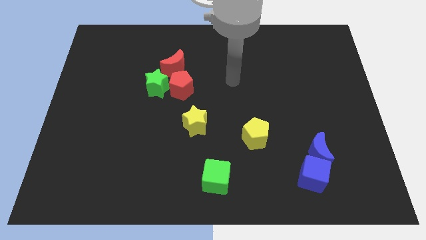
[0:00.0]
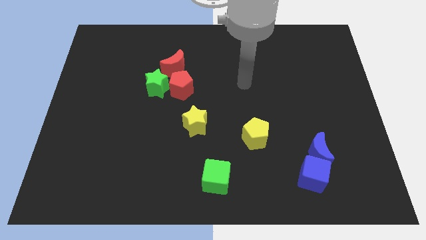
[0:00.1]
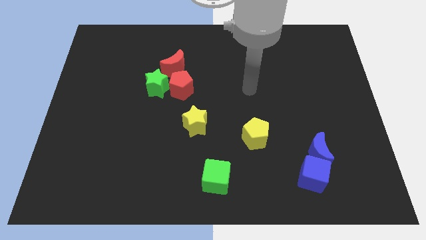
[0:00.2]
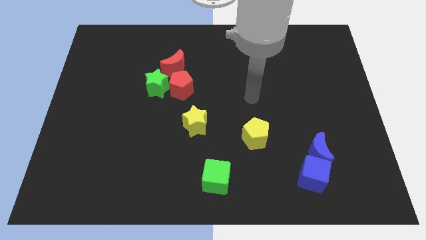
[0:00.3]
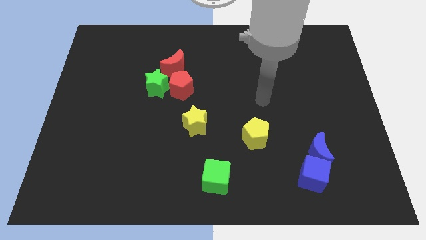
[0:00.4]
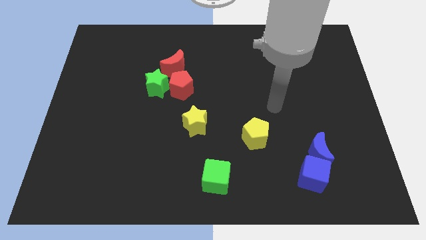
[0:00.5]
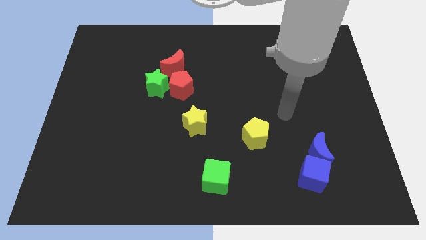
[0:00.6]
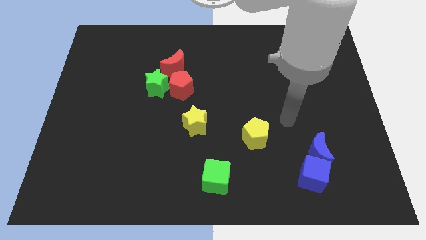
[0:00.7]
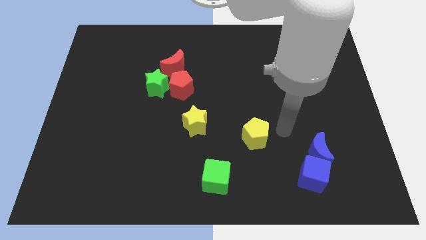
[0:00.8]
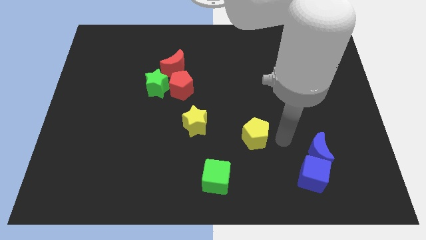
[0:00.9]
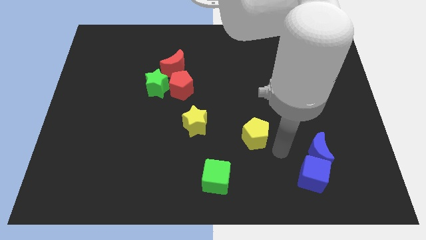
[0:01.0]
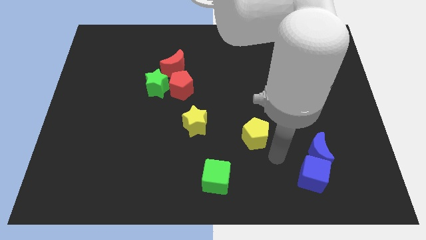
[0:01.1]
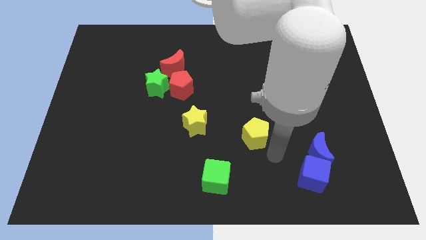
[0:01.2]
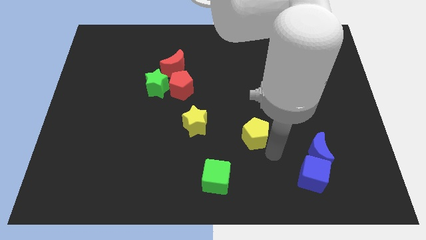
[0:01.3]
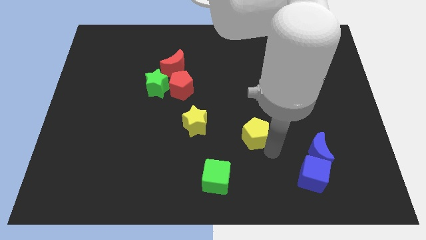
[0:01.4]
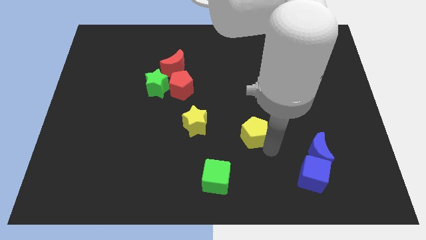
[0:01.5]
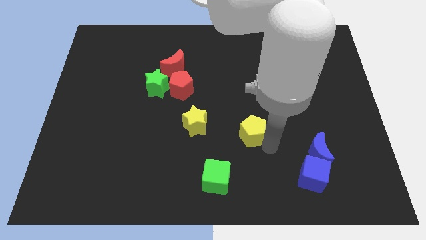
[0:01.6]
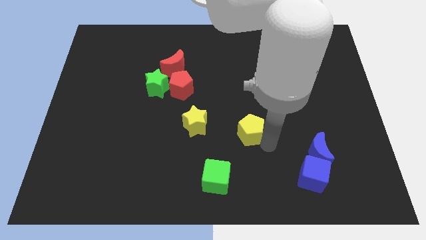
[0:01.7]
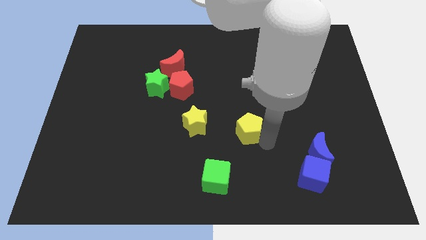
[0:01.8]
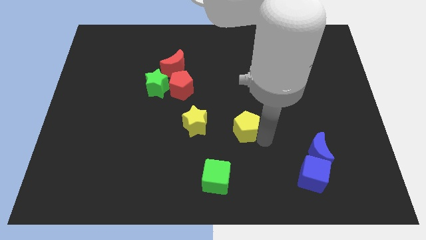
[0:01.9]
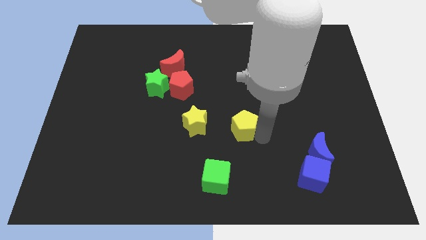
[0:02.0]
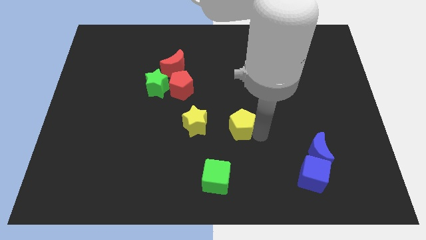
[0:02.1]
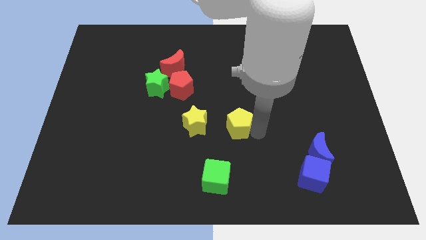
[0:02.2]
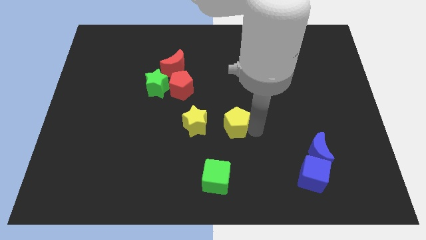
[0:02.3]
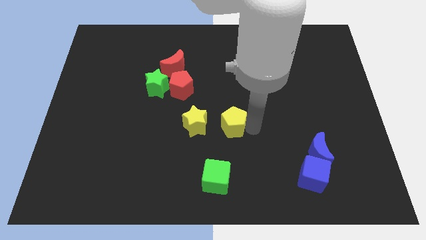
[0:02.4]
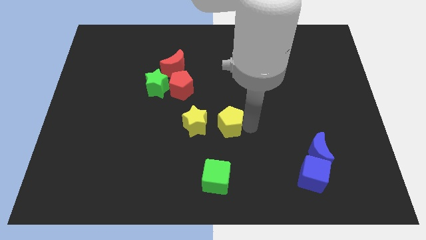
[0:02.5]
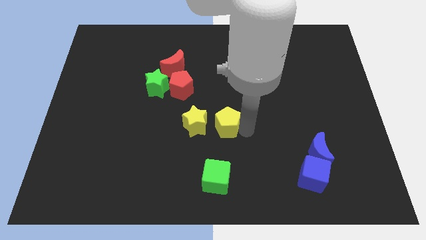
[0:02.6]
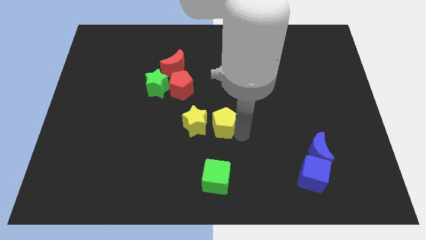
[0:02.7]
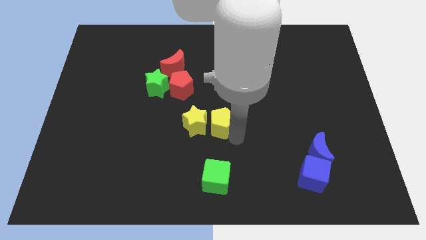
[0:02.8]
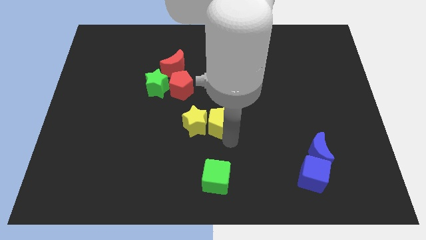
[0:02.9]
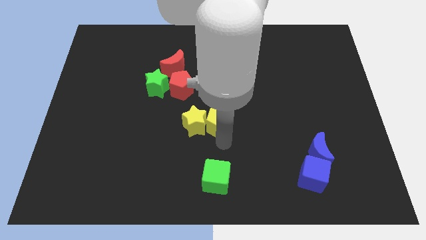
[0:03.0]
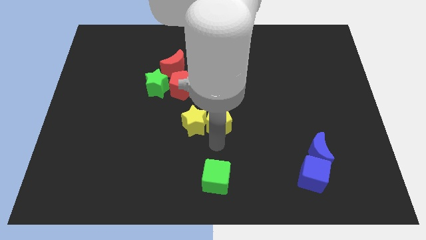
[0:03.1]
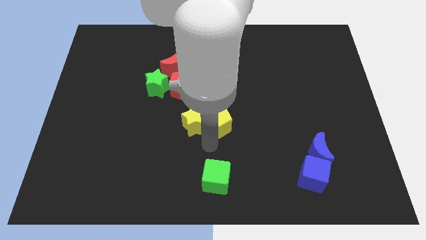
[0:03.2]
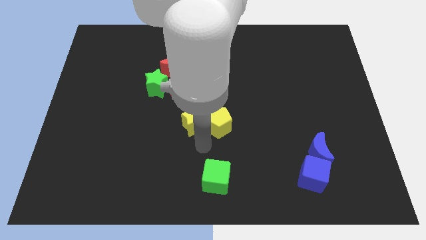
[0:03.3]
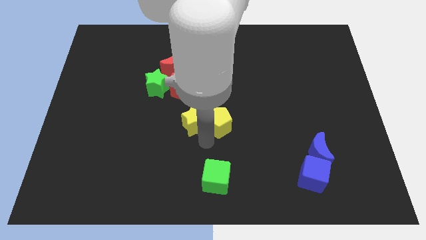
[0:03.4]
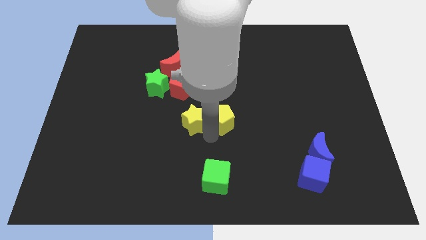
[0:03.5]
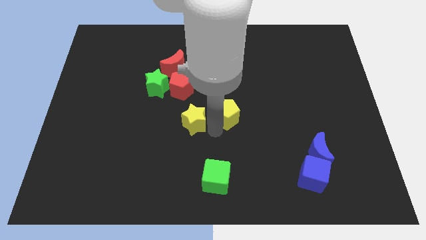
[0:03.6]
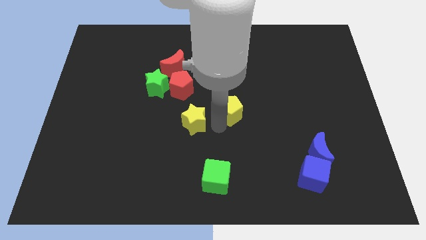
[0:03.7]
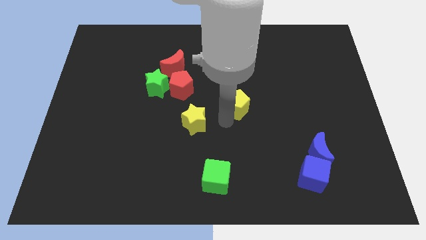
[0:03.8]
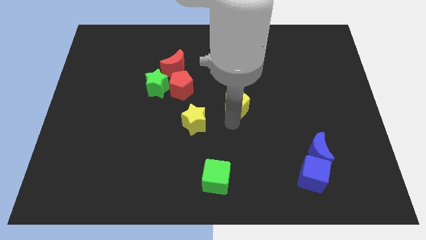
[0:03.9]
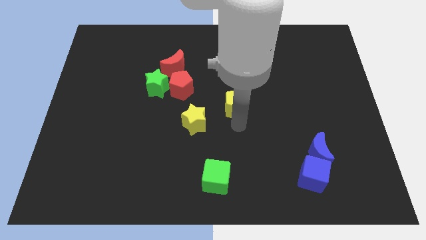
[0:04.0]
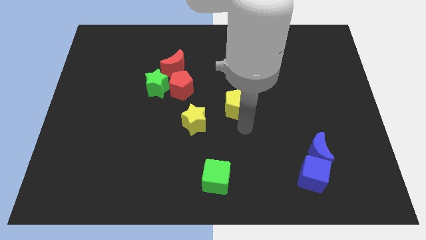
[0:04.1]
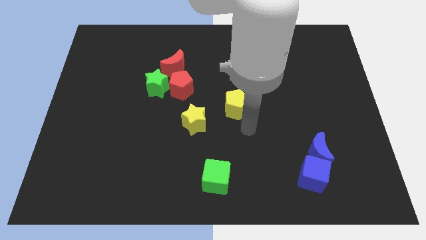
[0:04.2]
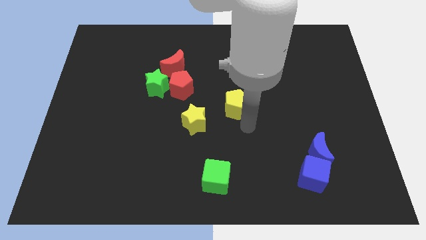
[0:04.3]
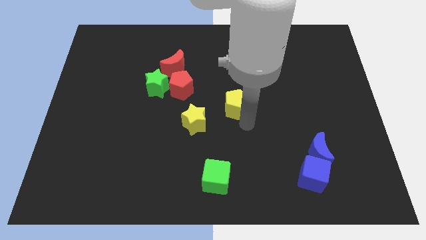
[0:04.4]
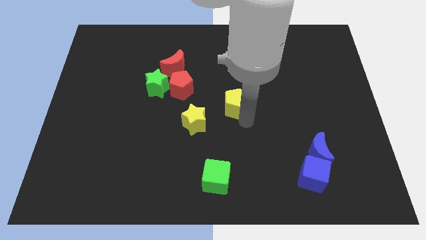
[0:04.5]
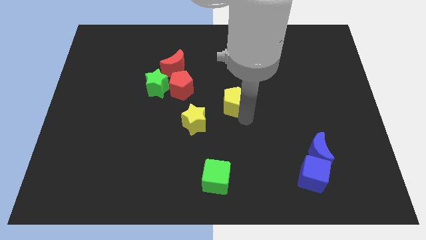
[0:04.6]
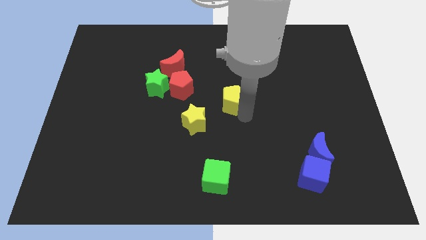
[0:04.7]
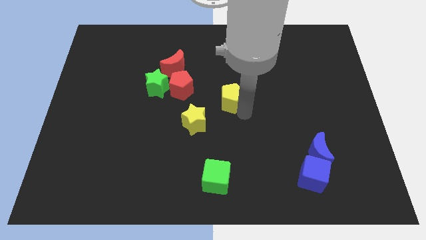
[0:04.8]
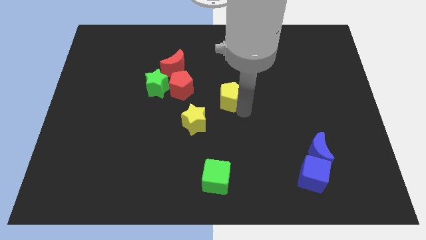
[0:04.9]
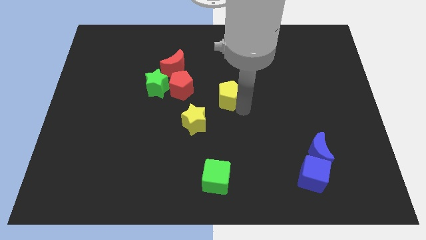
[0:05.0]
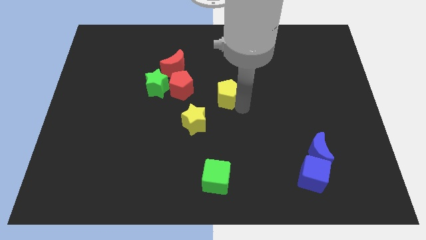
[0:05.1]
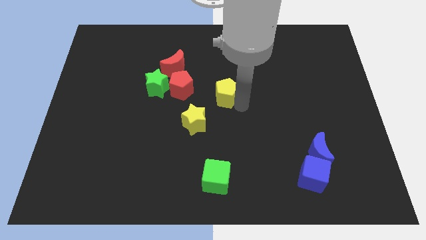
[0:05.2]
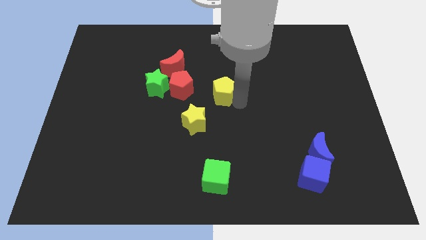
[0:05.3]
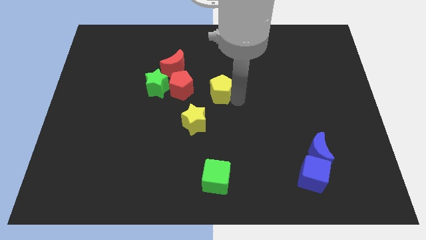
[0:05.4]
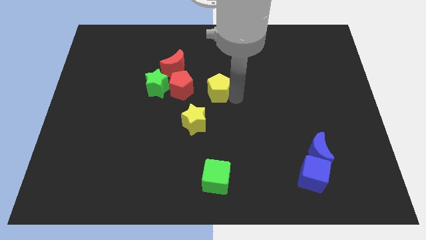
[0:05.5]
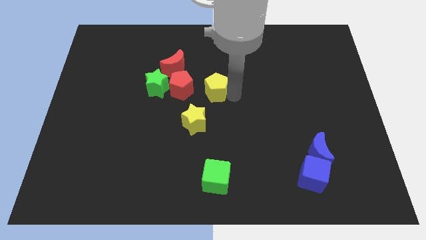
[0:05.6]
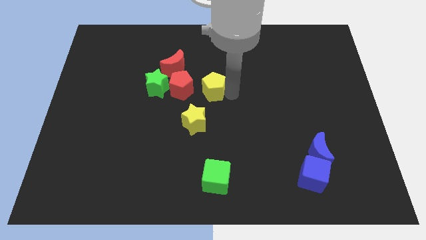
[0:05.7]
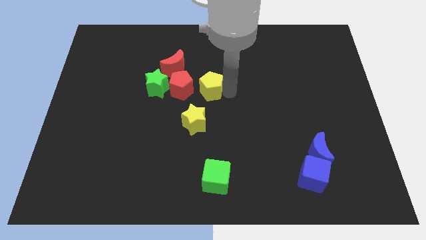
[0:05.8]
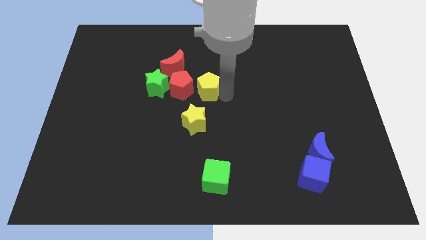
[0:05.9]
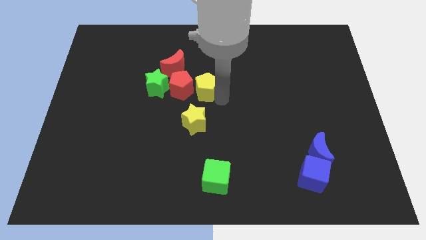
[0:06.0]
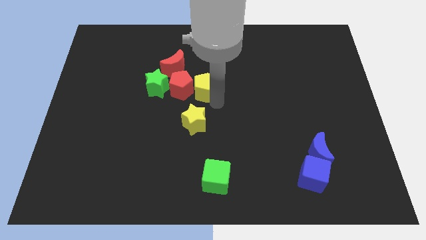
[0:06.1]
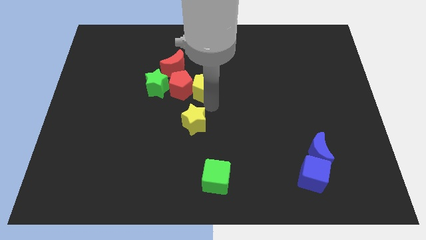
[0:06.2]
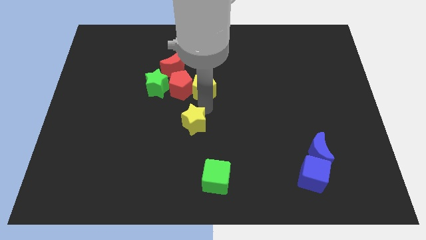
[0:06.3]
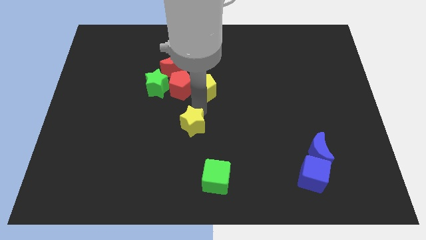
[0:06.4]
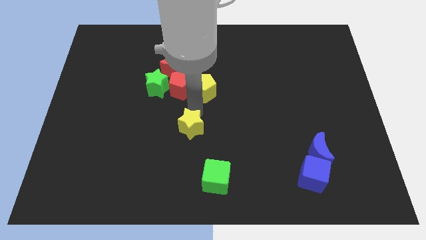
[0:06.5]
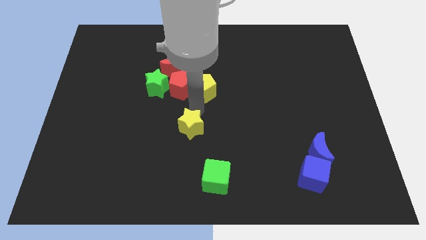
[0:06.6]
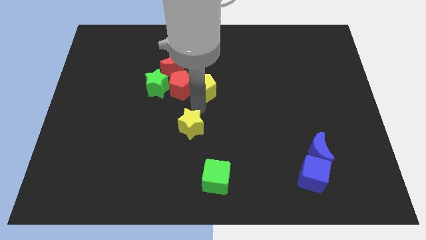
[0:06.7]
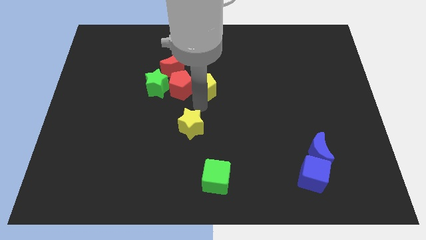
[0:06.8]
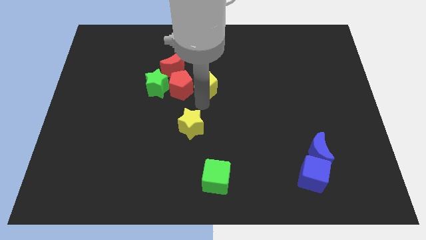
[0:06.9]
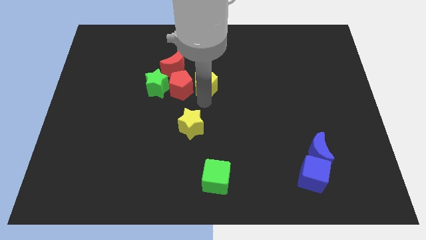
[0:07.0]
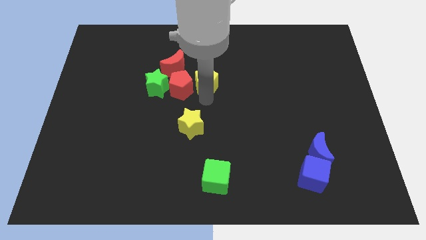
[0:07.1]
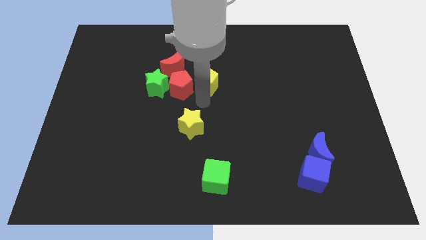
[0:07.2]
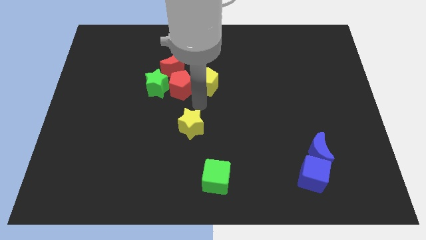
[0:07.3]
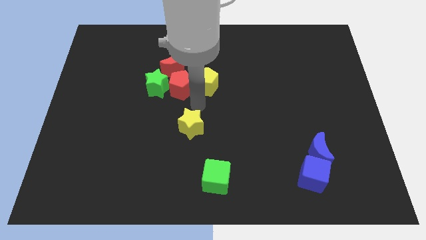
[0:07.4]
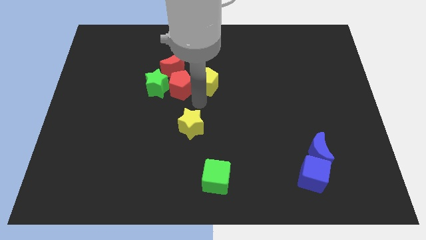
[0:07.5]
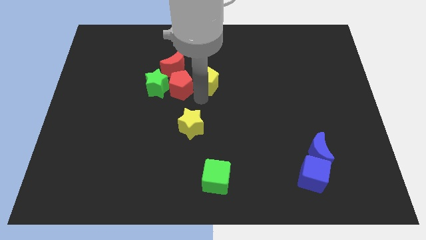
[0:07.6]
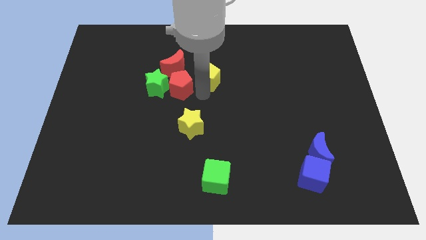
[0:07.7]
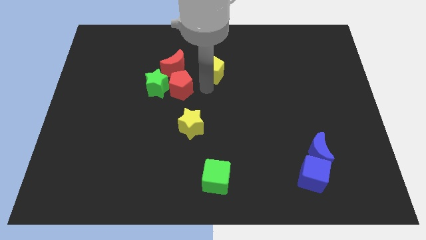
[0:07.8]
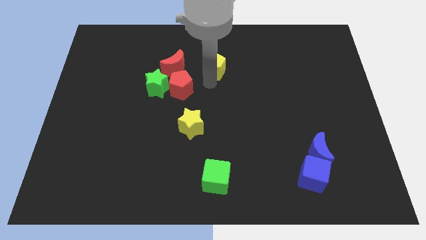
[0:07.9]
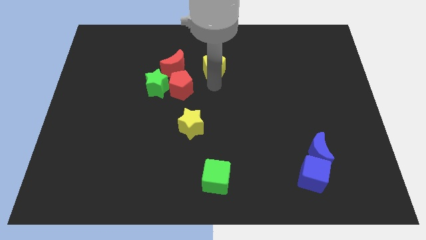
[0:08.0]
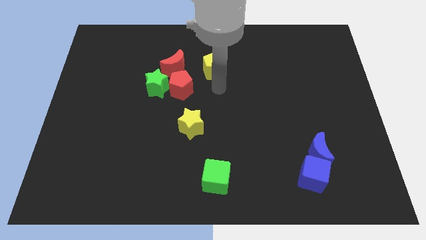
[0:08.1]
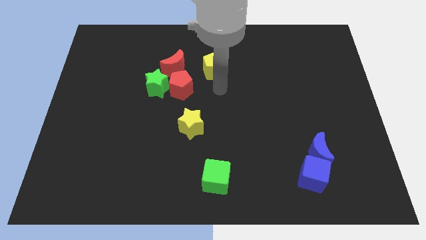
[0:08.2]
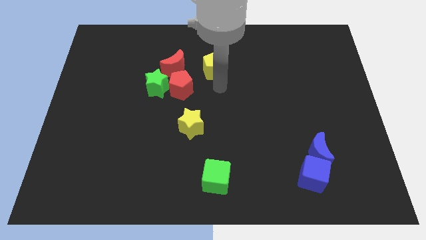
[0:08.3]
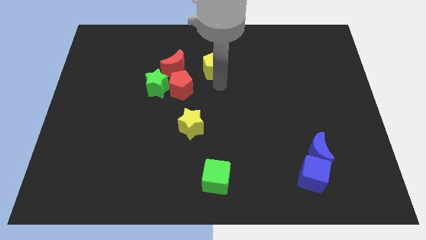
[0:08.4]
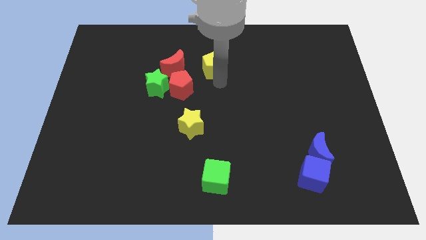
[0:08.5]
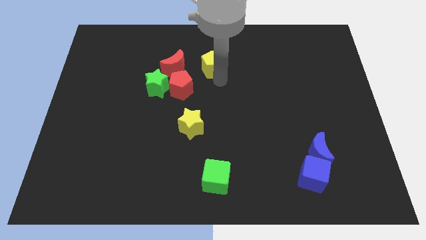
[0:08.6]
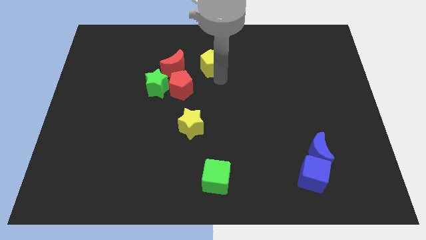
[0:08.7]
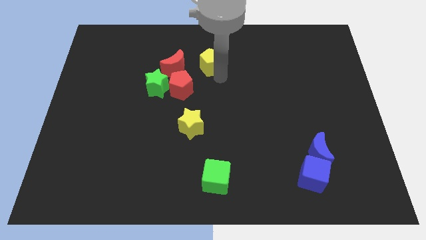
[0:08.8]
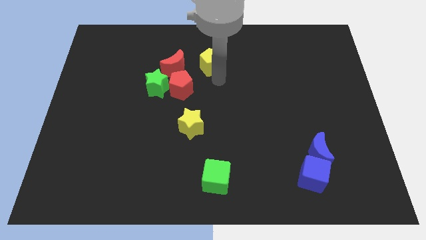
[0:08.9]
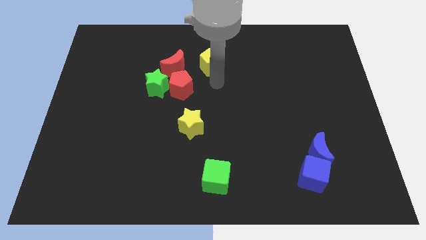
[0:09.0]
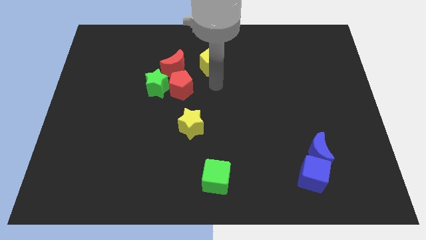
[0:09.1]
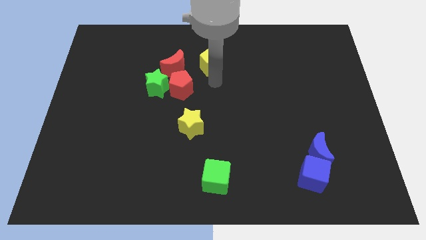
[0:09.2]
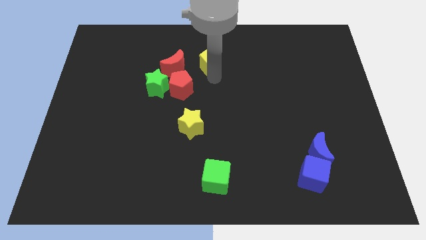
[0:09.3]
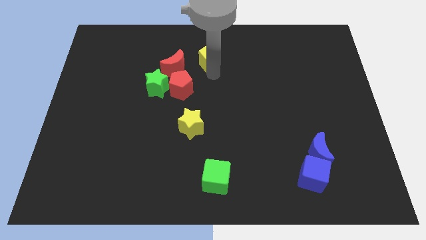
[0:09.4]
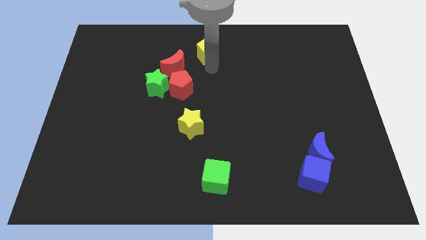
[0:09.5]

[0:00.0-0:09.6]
move the yellow pentagon to the towards your base
